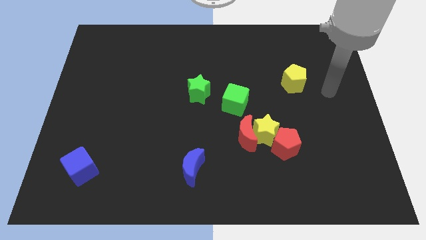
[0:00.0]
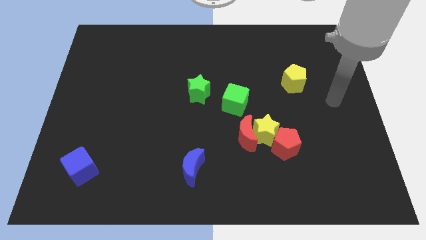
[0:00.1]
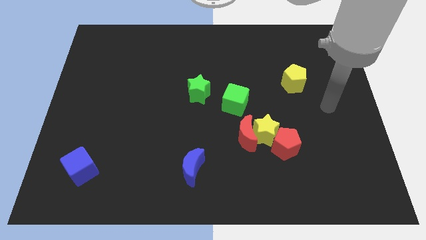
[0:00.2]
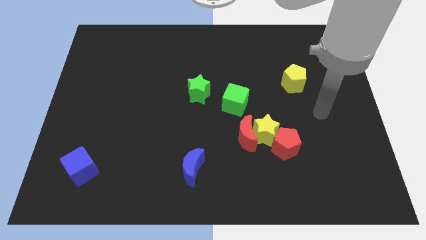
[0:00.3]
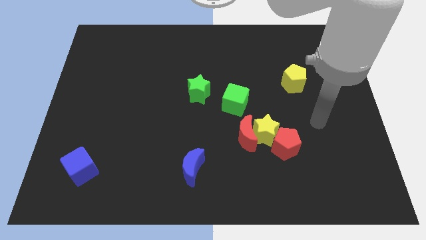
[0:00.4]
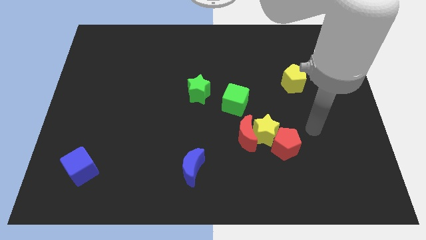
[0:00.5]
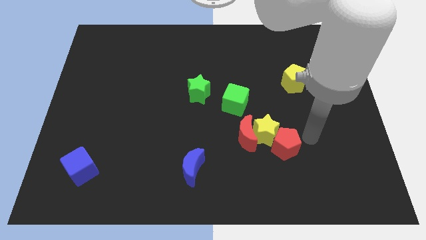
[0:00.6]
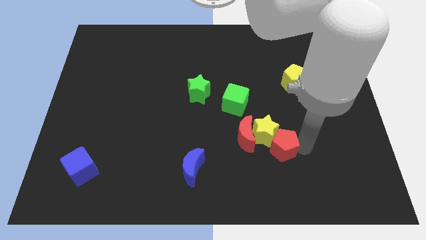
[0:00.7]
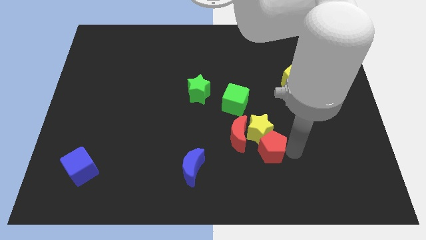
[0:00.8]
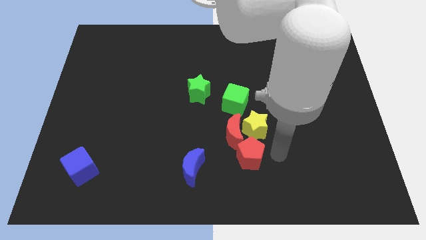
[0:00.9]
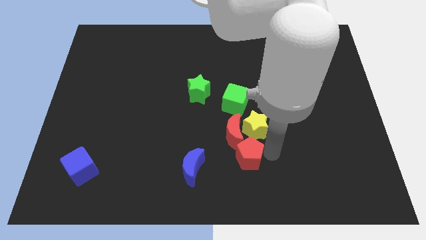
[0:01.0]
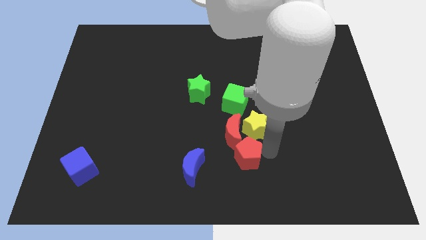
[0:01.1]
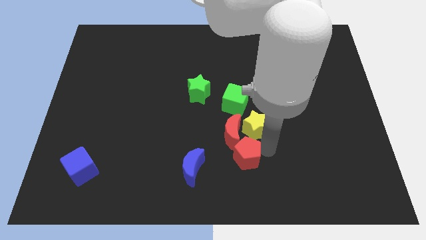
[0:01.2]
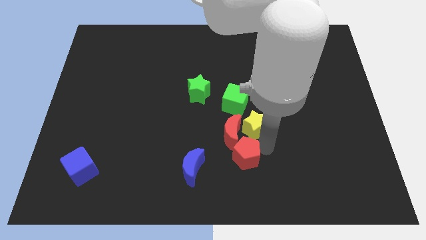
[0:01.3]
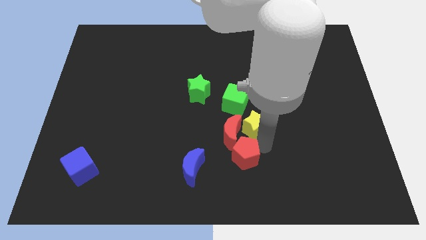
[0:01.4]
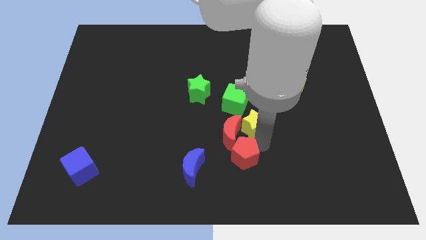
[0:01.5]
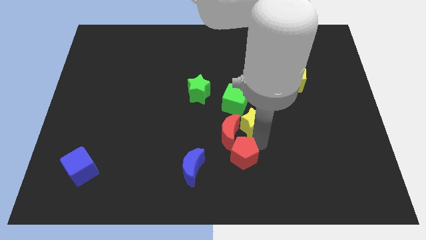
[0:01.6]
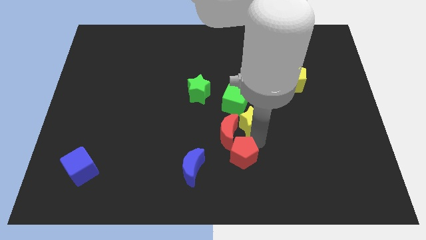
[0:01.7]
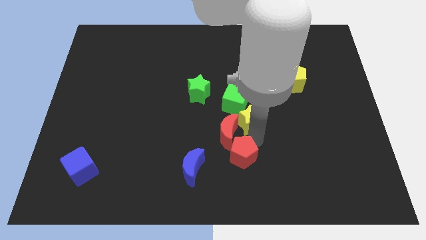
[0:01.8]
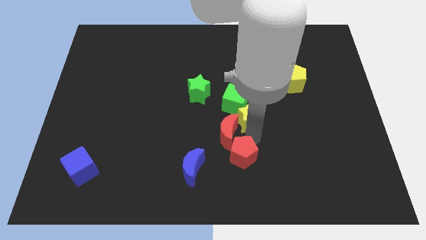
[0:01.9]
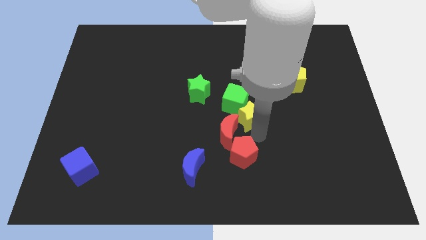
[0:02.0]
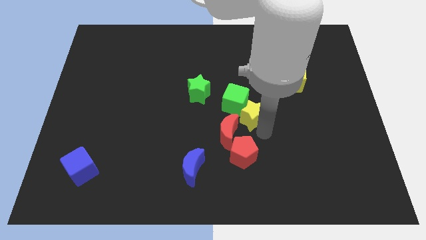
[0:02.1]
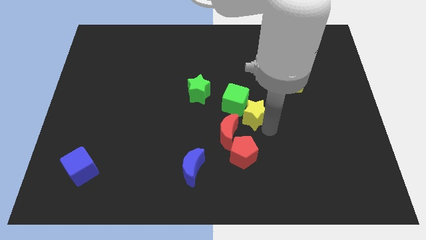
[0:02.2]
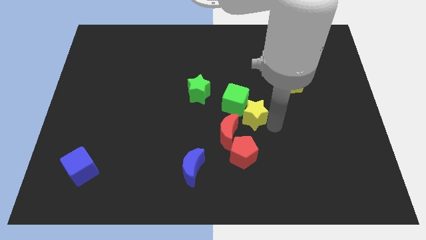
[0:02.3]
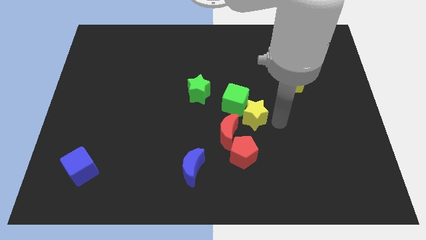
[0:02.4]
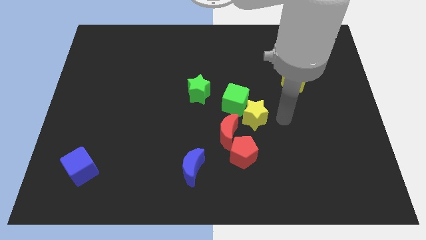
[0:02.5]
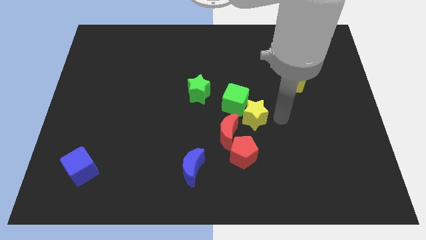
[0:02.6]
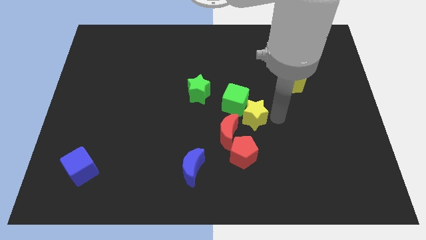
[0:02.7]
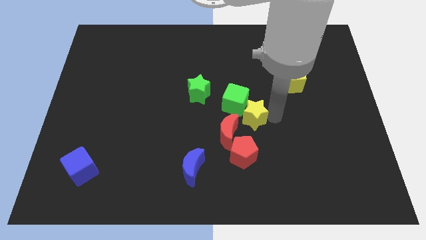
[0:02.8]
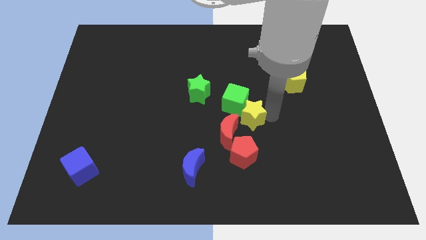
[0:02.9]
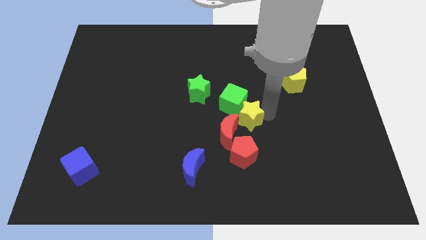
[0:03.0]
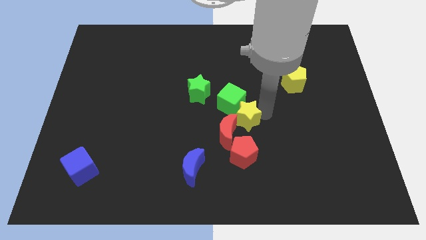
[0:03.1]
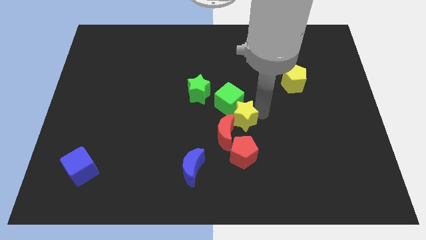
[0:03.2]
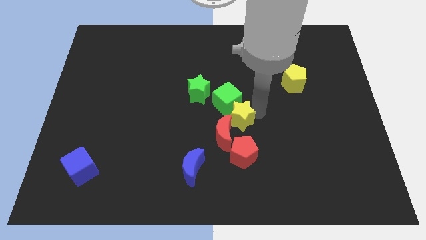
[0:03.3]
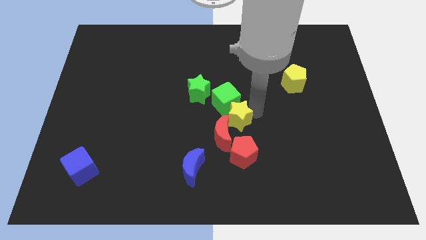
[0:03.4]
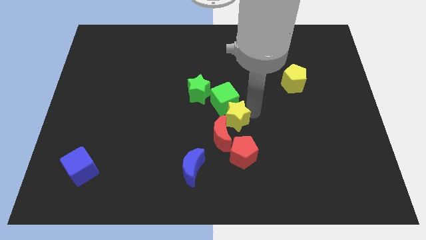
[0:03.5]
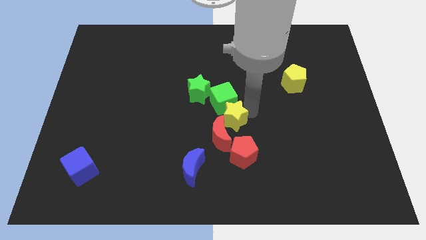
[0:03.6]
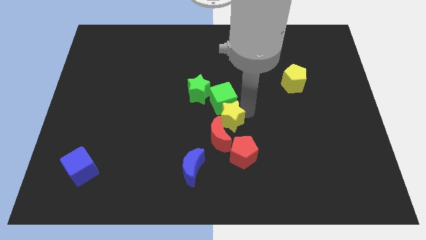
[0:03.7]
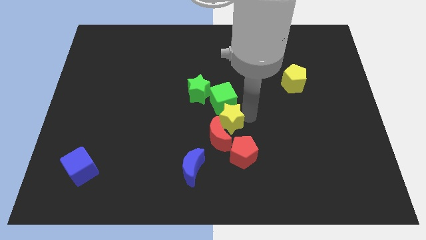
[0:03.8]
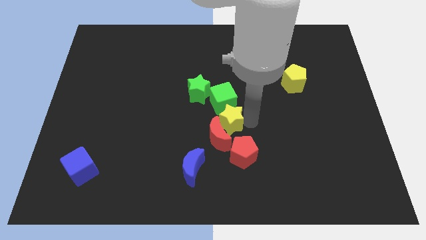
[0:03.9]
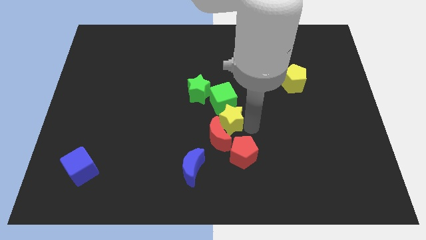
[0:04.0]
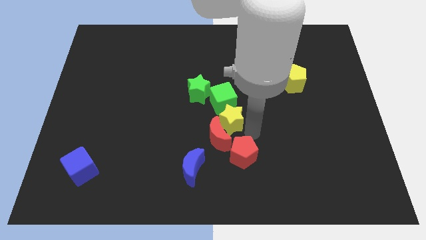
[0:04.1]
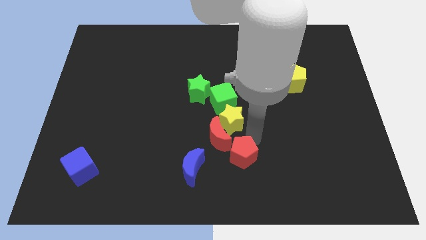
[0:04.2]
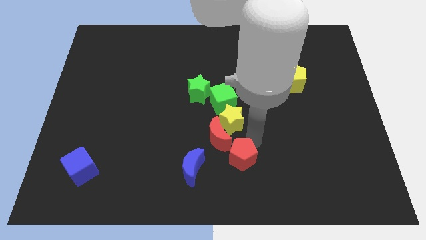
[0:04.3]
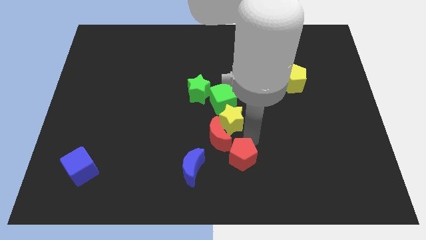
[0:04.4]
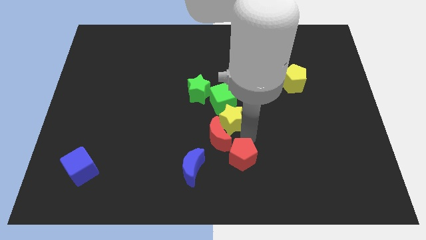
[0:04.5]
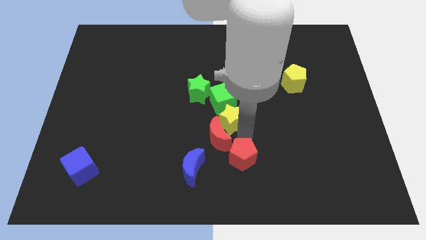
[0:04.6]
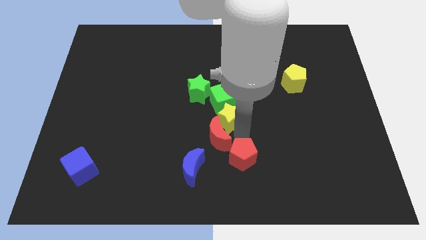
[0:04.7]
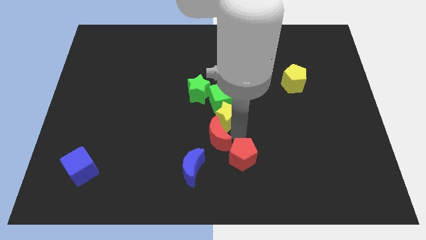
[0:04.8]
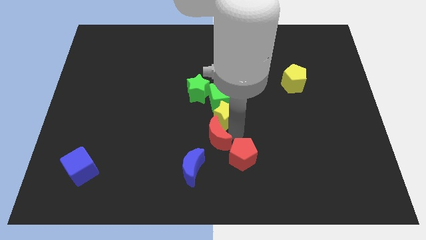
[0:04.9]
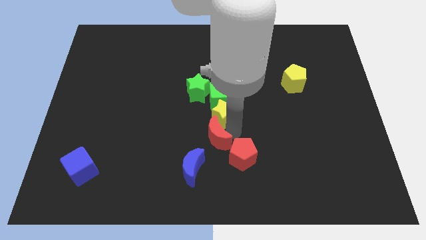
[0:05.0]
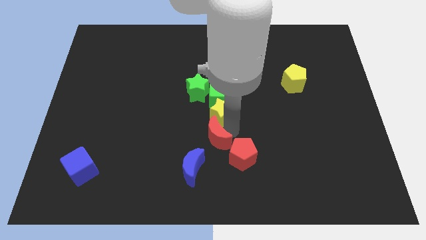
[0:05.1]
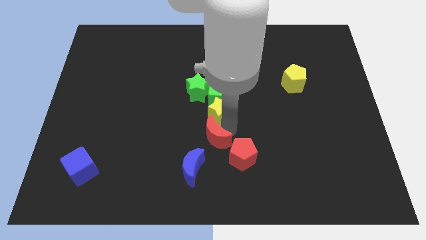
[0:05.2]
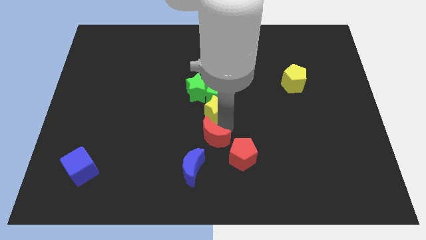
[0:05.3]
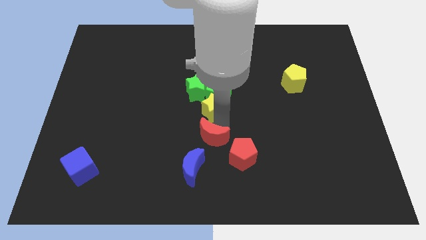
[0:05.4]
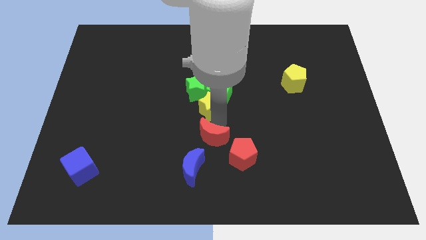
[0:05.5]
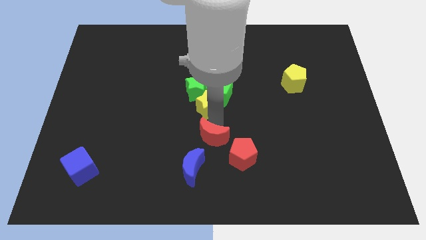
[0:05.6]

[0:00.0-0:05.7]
put the yellow star close to the green star

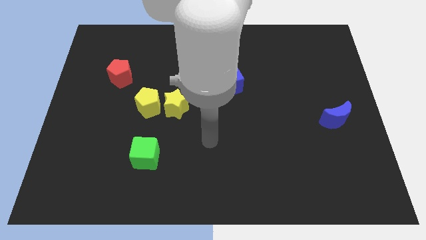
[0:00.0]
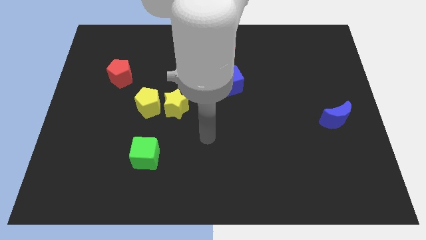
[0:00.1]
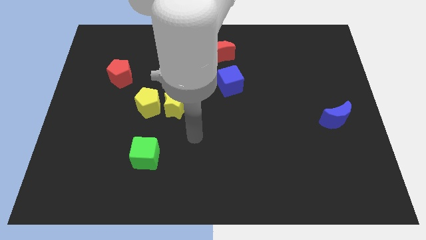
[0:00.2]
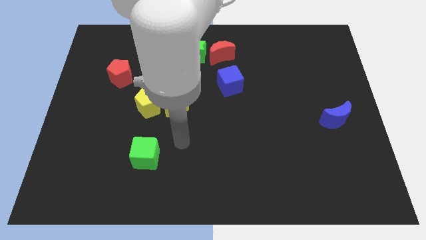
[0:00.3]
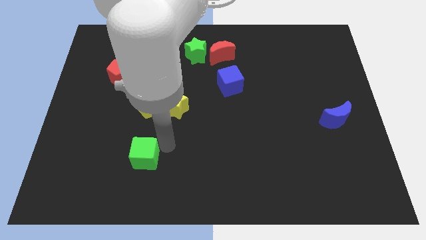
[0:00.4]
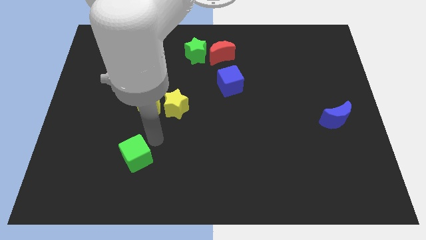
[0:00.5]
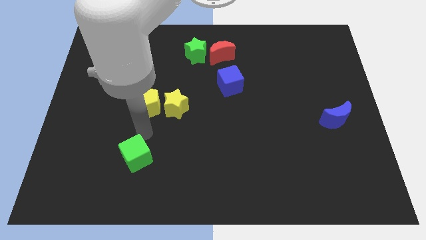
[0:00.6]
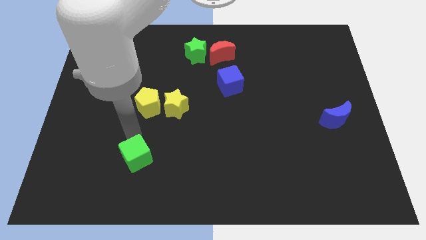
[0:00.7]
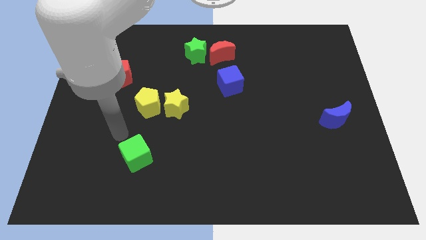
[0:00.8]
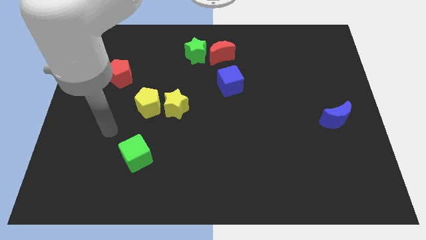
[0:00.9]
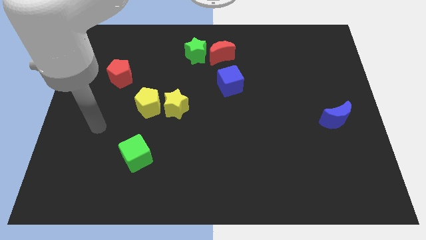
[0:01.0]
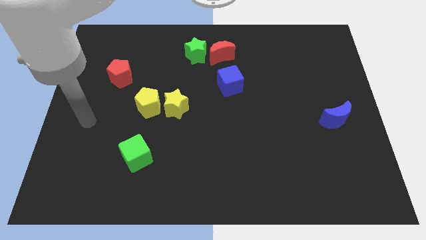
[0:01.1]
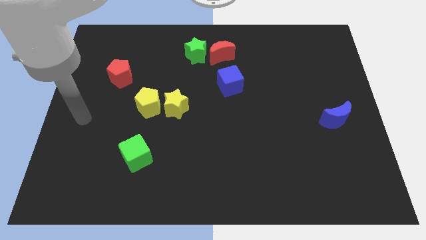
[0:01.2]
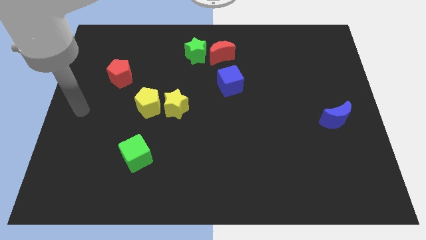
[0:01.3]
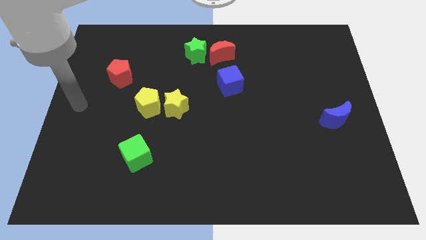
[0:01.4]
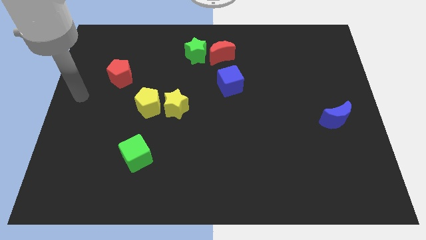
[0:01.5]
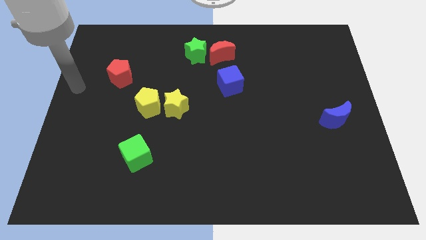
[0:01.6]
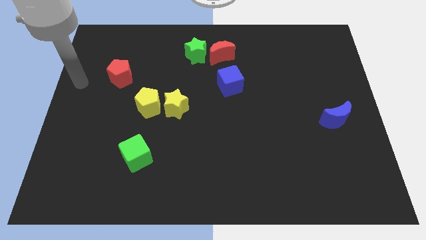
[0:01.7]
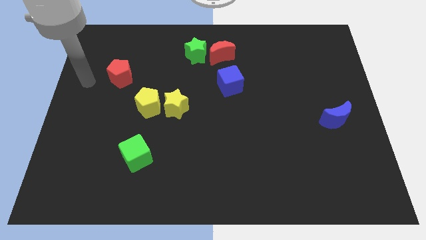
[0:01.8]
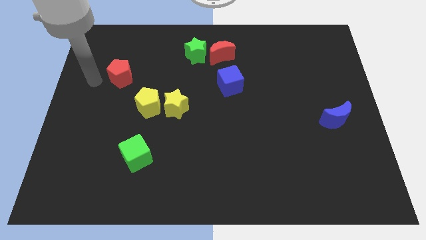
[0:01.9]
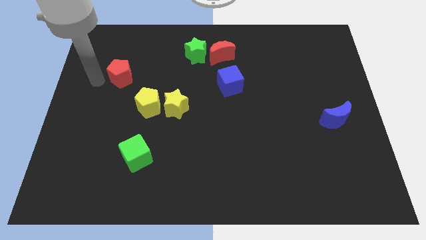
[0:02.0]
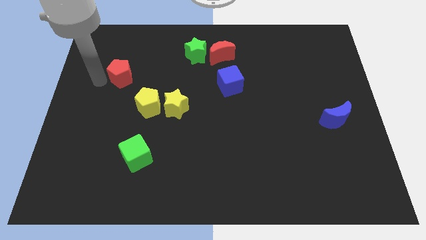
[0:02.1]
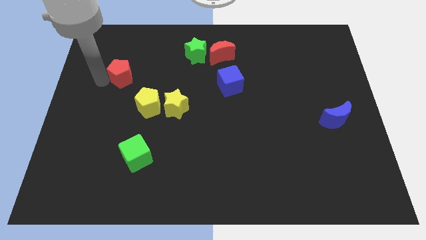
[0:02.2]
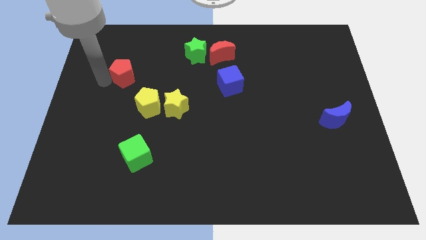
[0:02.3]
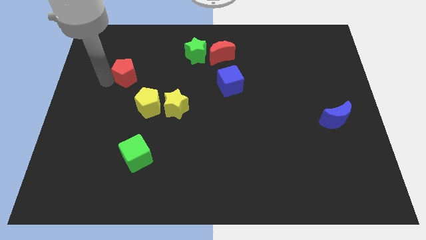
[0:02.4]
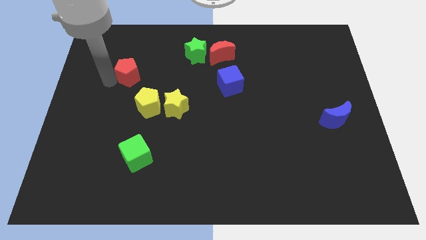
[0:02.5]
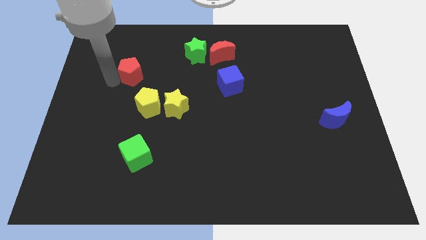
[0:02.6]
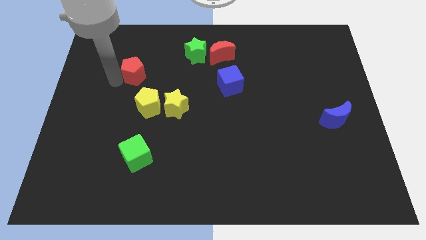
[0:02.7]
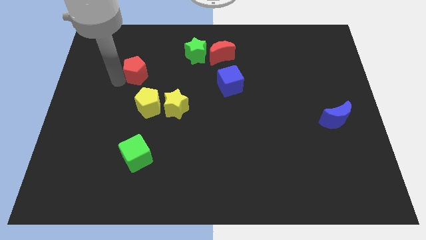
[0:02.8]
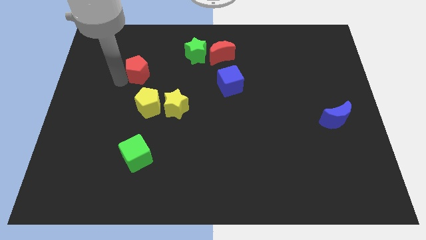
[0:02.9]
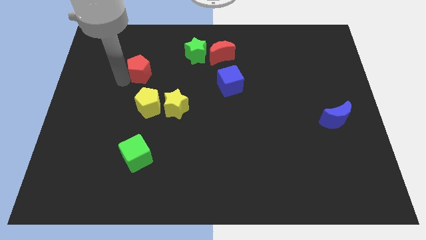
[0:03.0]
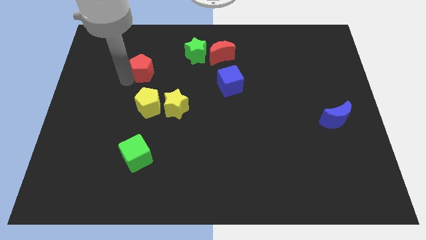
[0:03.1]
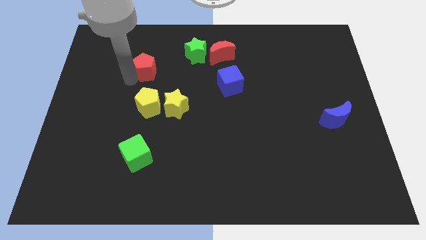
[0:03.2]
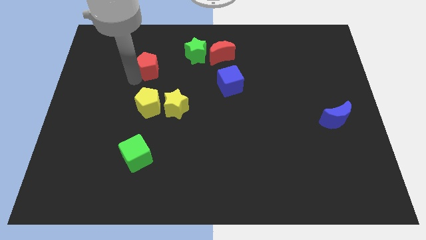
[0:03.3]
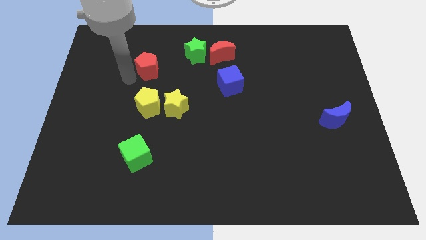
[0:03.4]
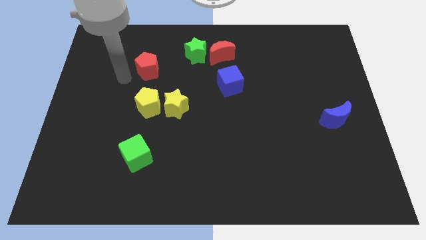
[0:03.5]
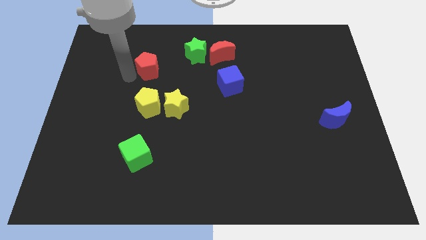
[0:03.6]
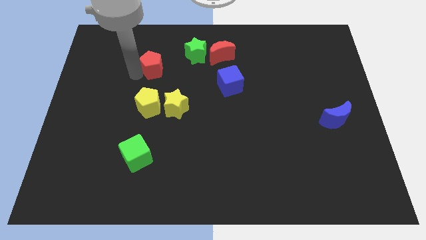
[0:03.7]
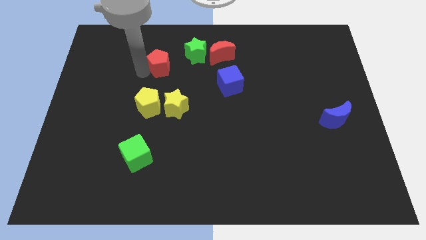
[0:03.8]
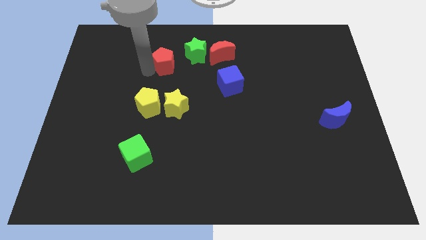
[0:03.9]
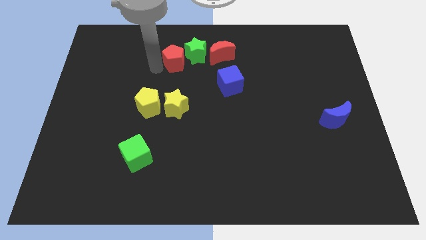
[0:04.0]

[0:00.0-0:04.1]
put the red pentagon next to the green star
